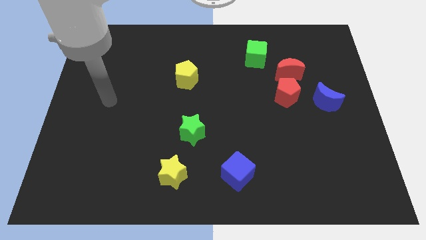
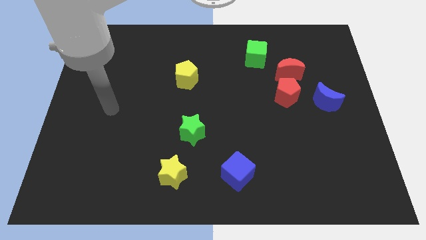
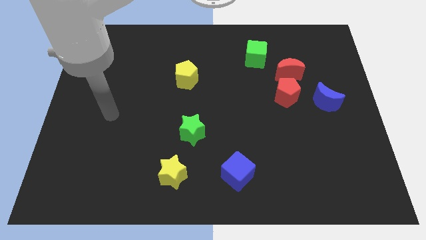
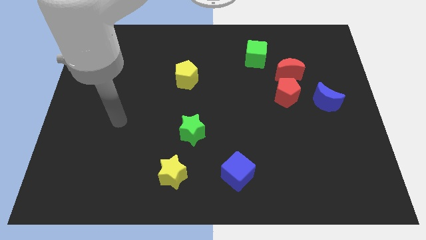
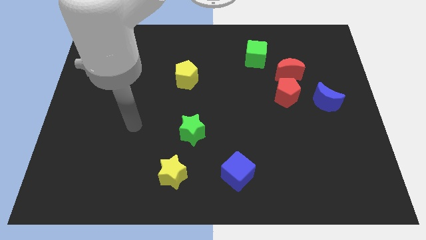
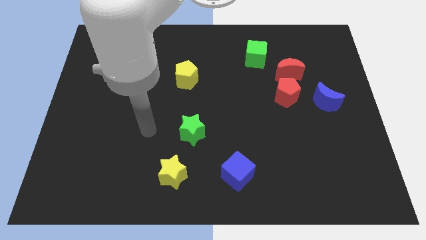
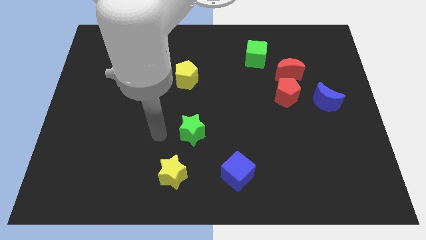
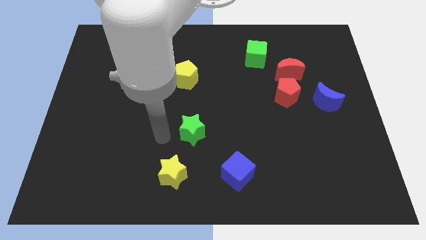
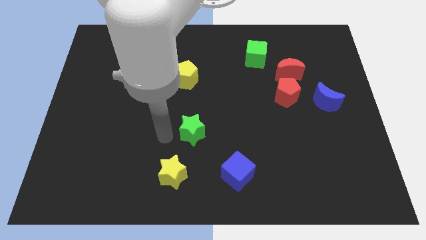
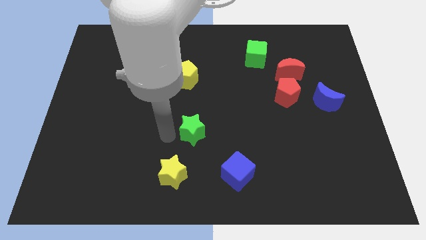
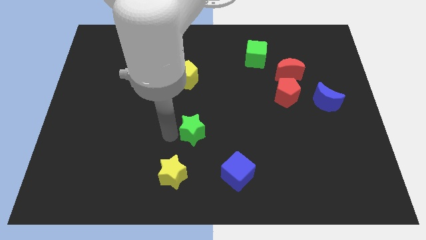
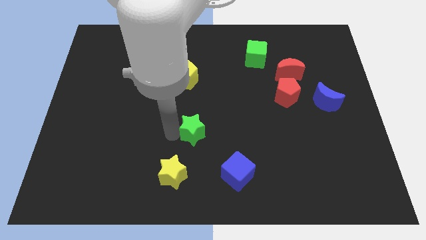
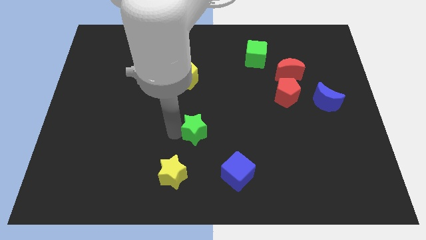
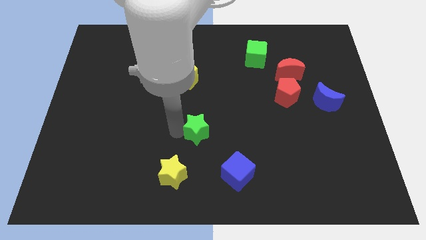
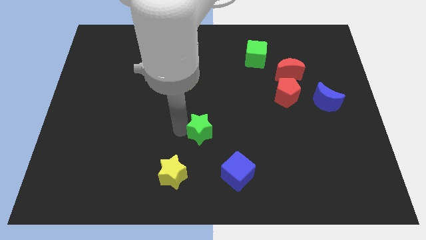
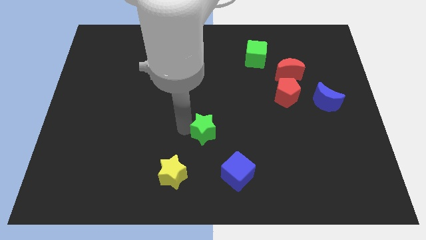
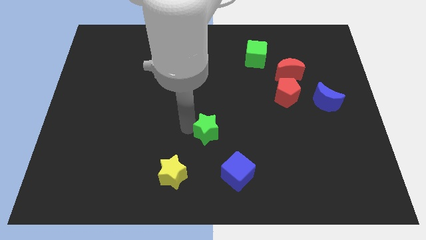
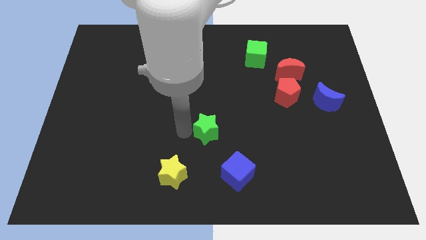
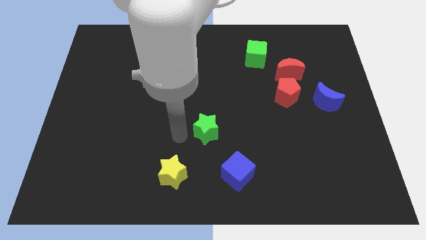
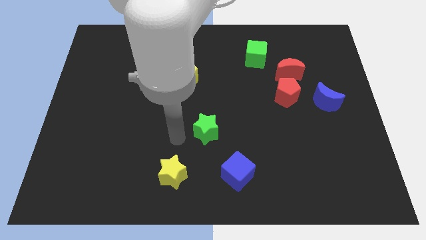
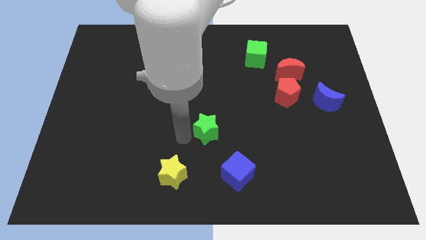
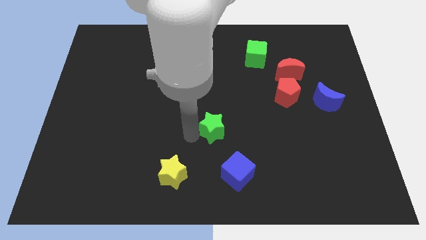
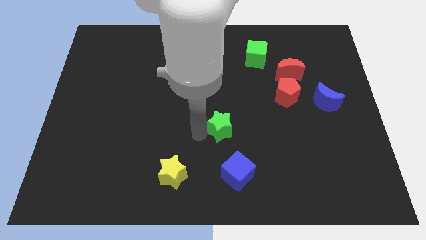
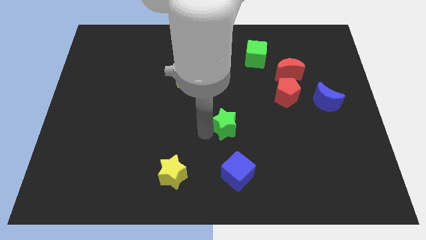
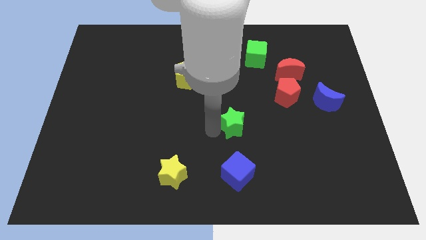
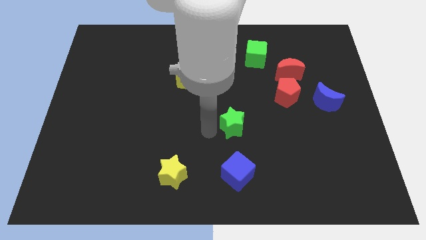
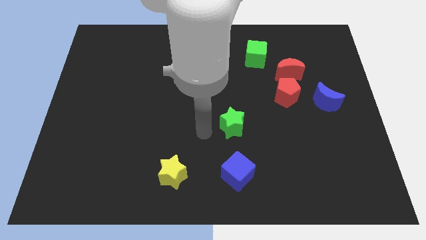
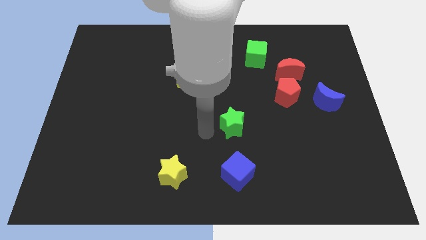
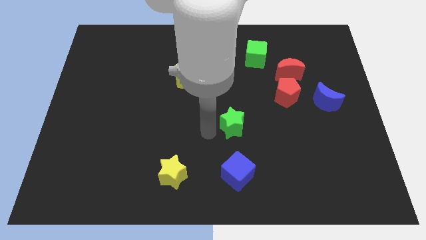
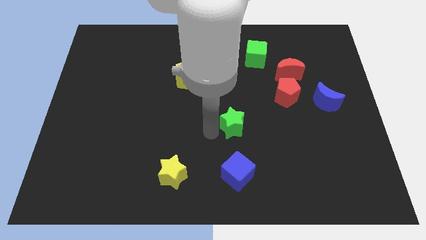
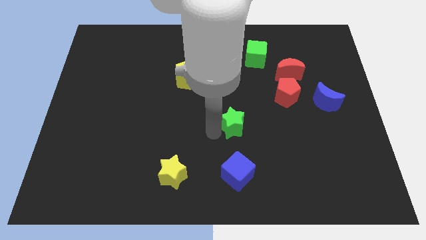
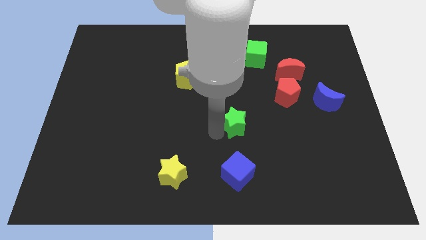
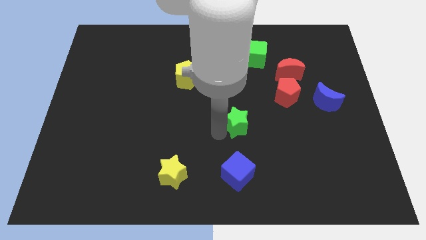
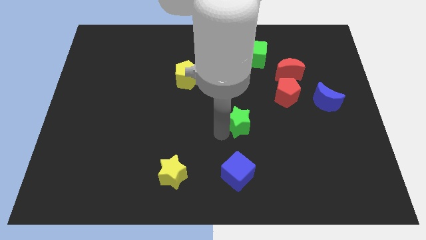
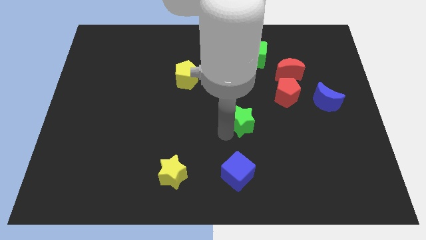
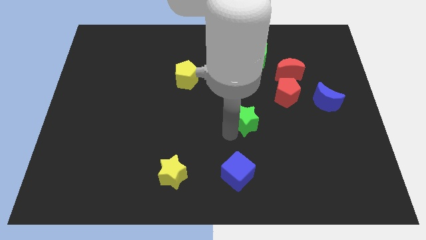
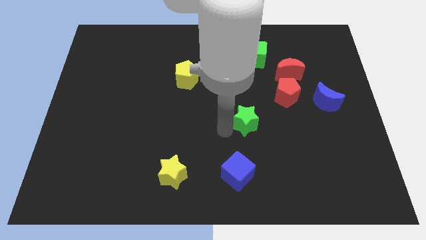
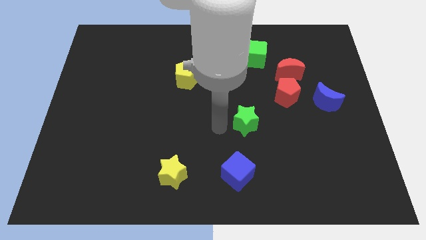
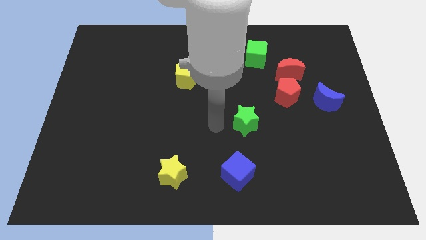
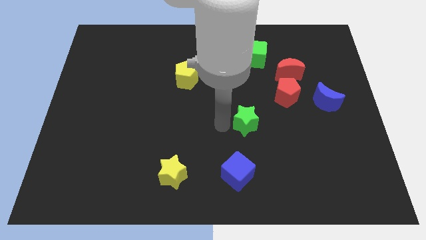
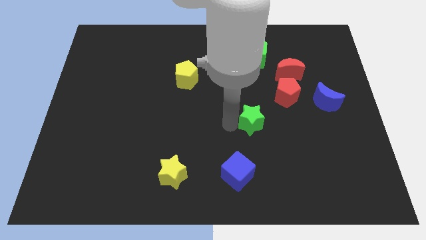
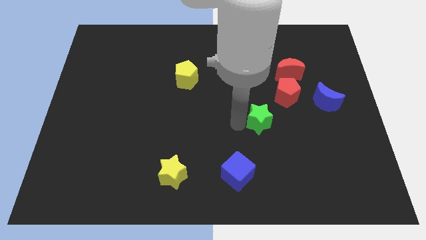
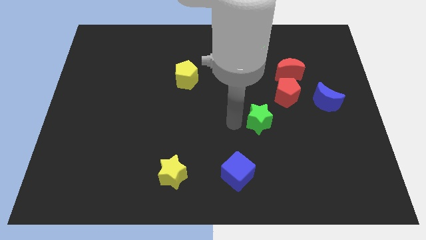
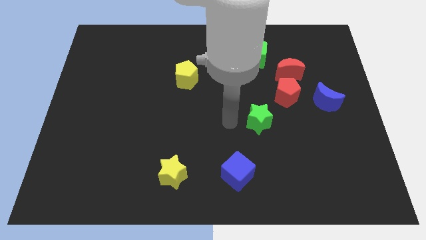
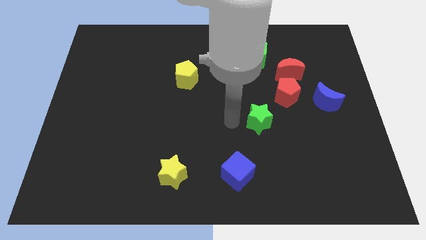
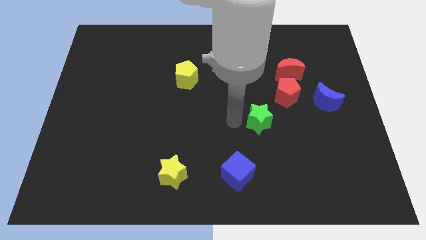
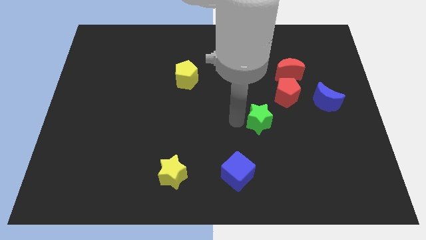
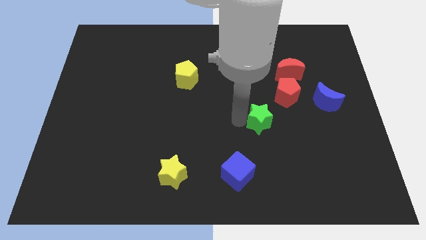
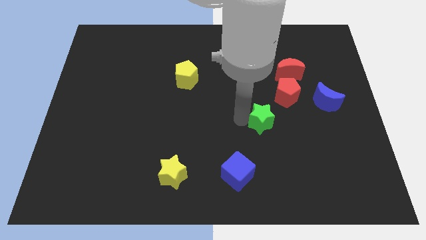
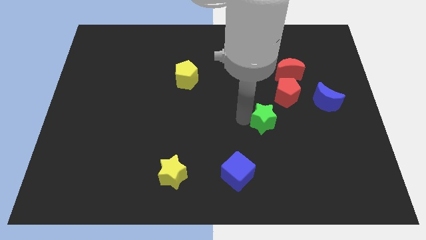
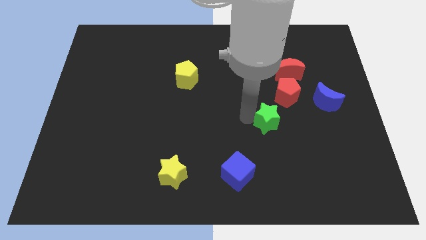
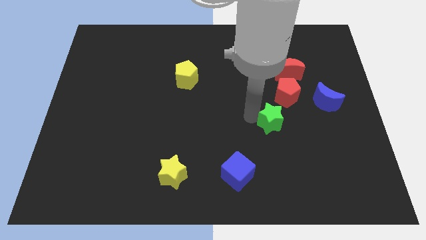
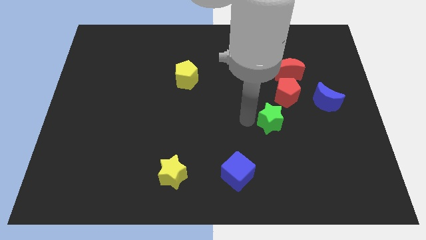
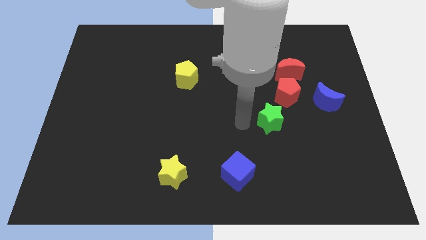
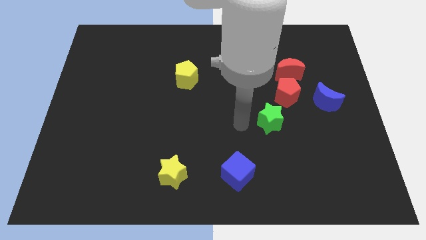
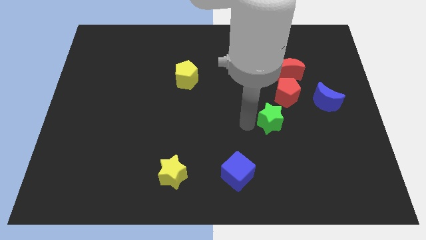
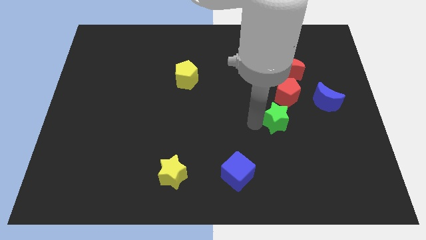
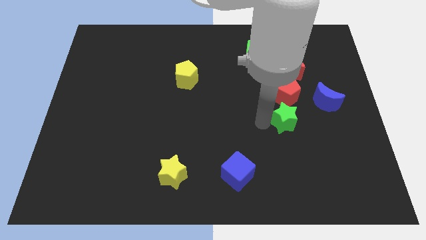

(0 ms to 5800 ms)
slide the green star right

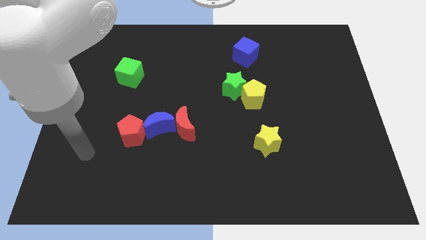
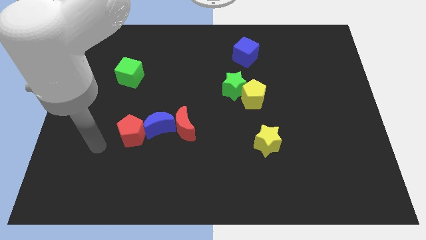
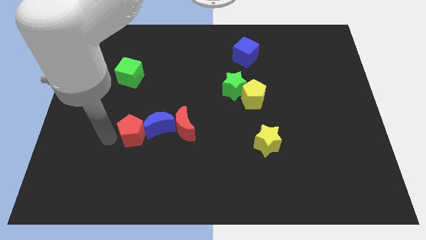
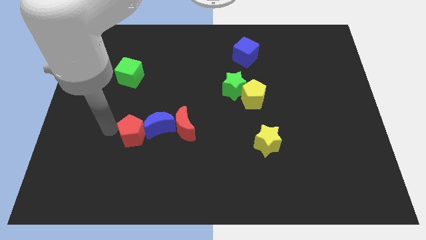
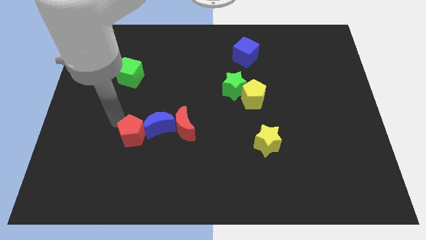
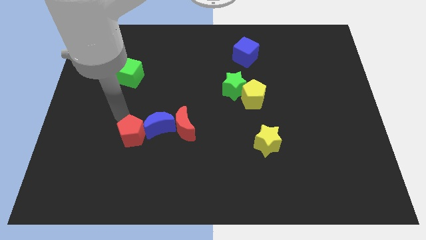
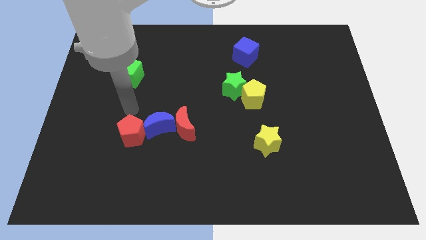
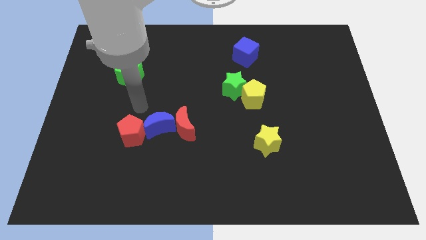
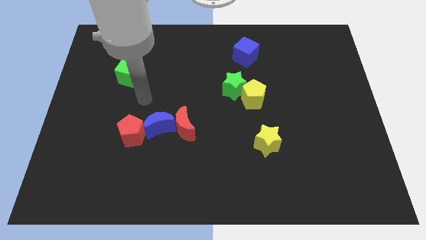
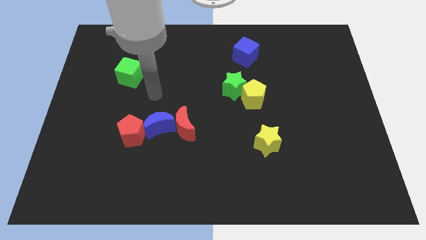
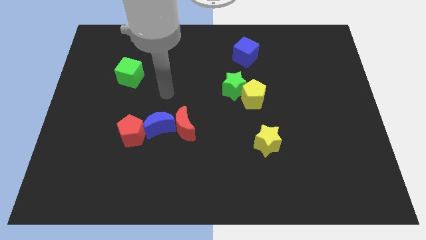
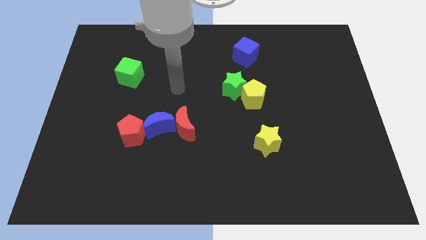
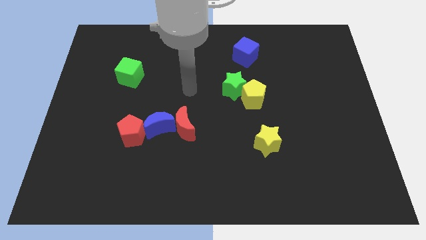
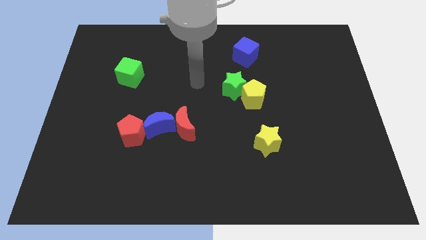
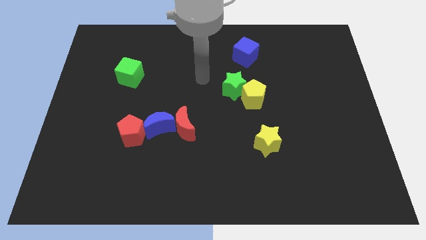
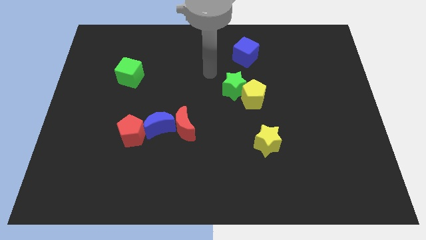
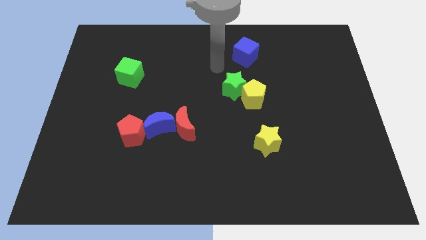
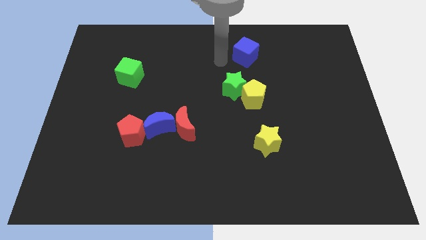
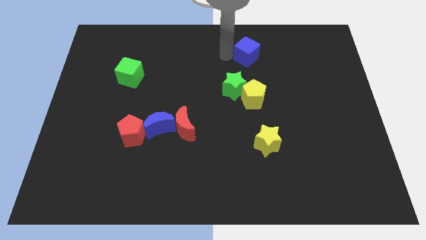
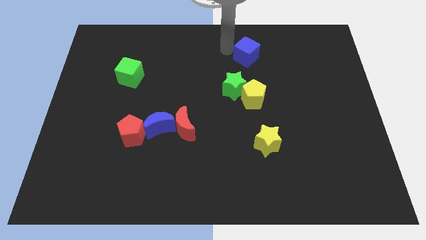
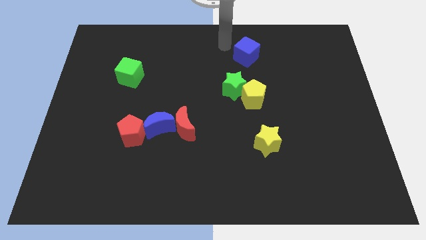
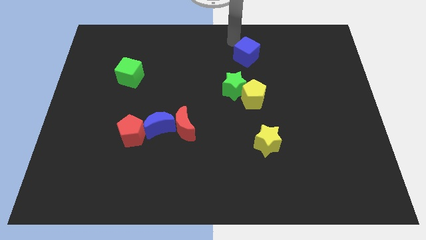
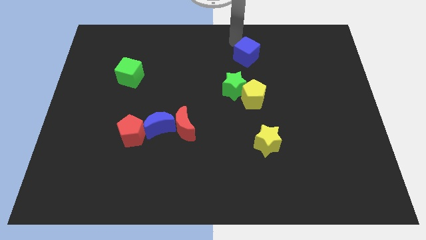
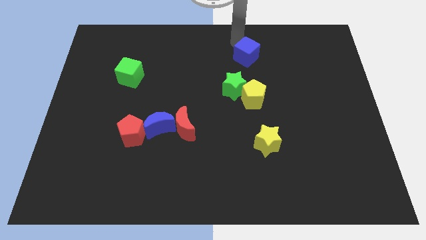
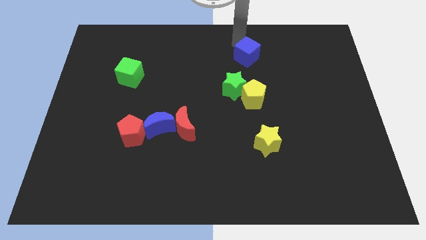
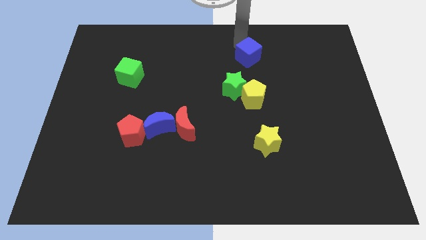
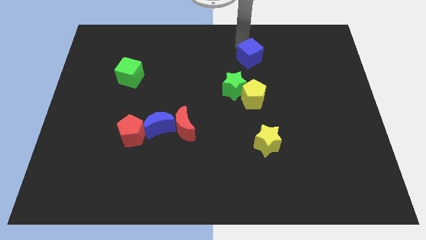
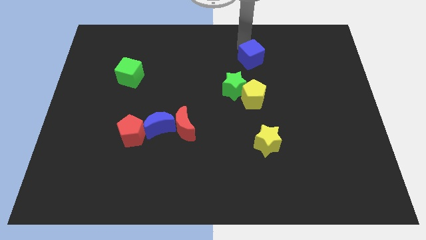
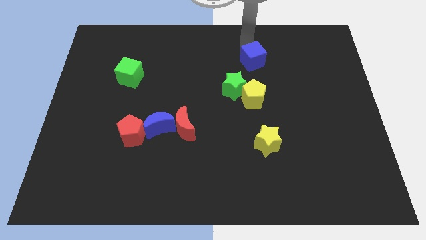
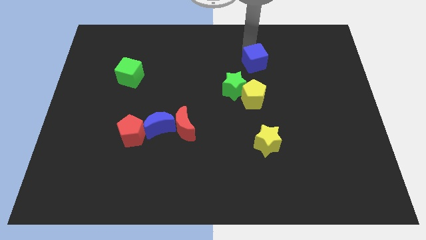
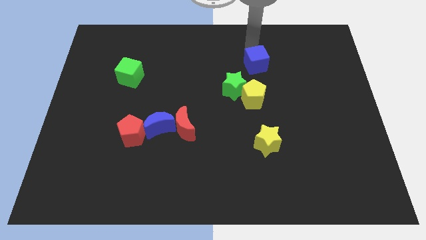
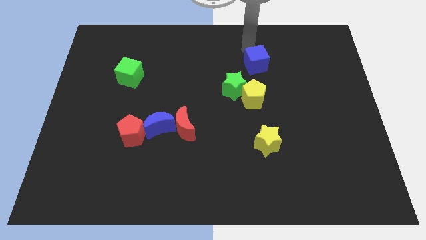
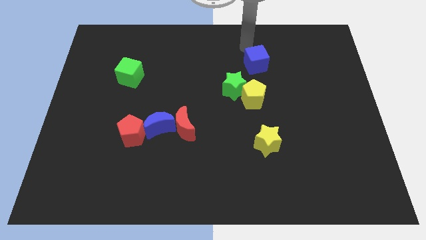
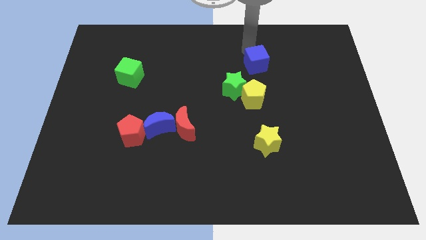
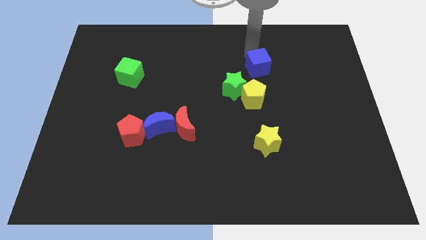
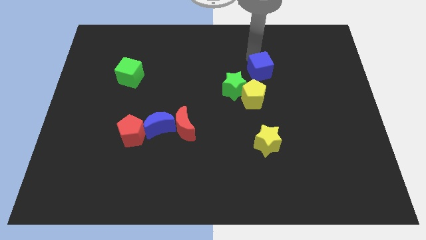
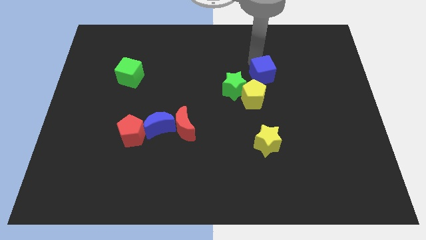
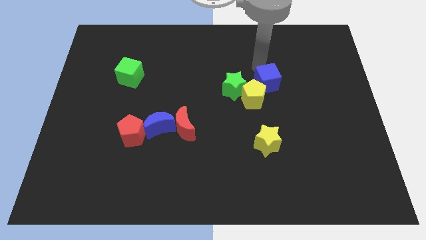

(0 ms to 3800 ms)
push the blue cube down a bit
